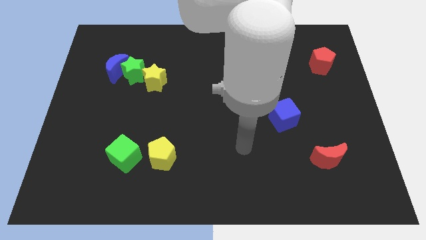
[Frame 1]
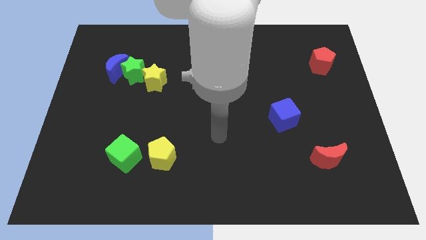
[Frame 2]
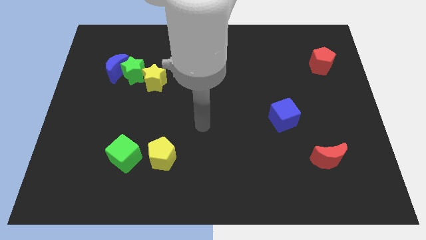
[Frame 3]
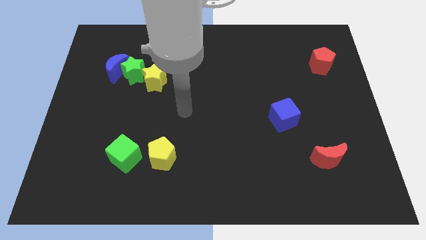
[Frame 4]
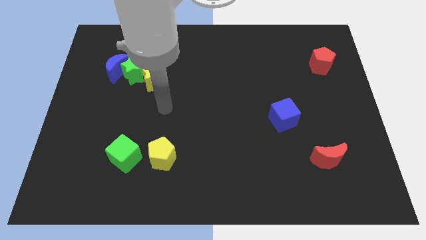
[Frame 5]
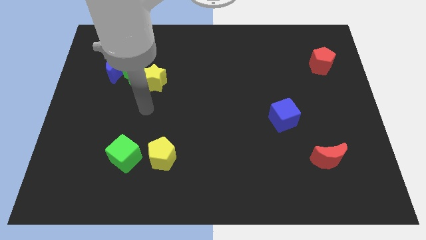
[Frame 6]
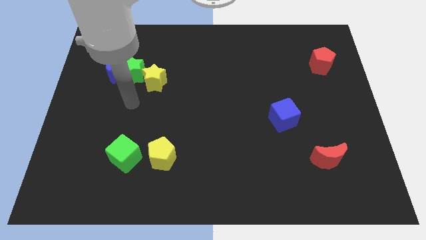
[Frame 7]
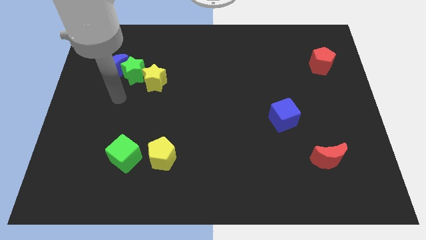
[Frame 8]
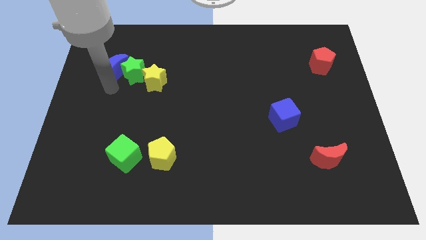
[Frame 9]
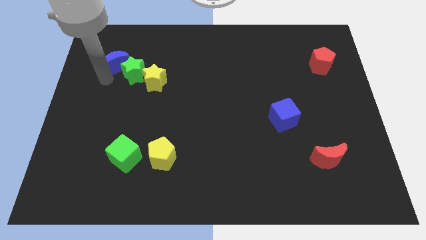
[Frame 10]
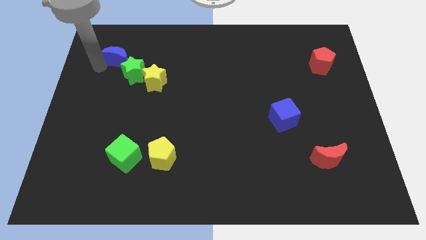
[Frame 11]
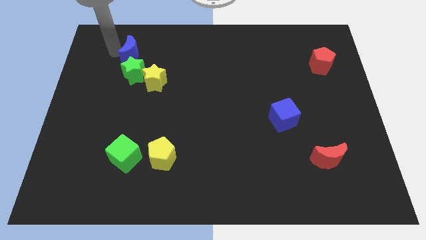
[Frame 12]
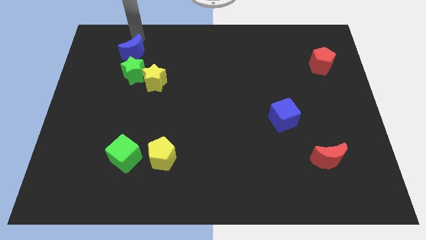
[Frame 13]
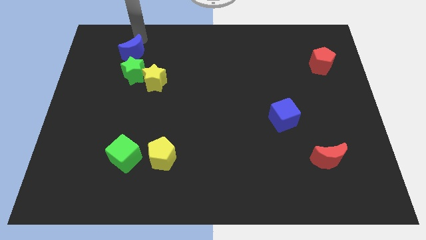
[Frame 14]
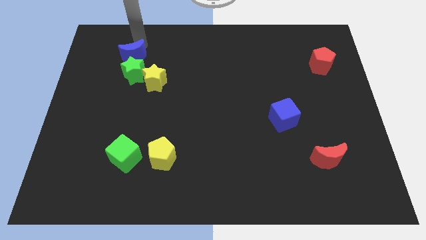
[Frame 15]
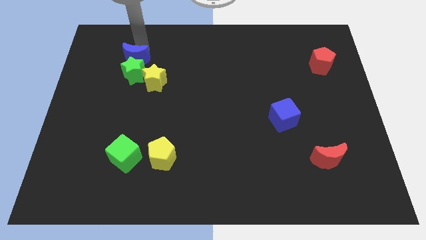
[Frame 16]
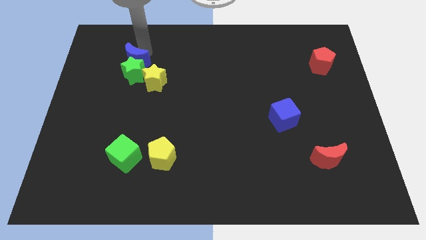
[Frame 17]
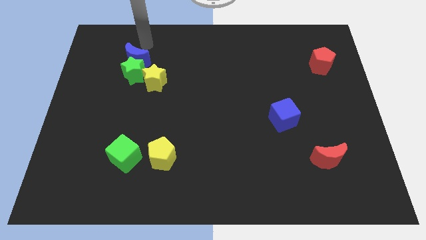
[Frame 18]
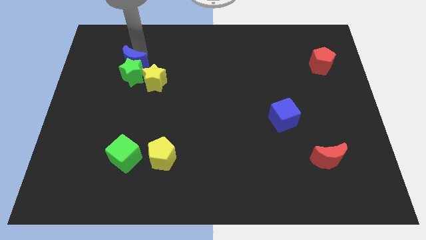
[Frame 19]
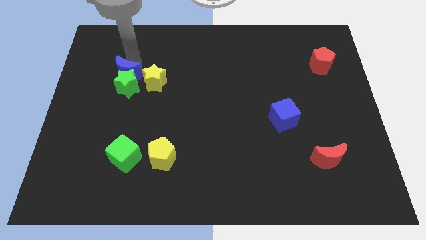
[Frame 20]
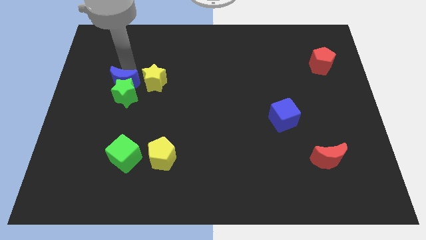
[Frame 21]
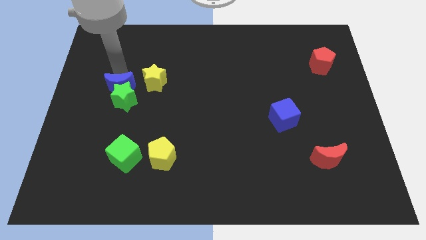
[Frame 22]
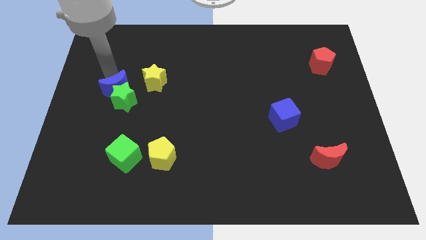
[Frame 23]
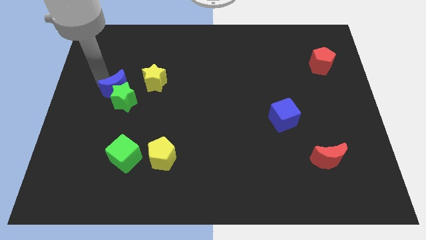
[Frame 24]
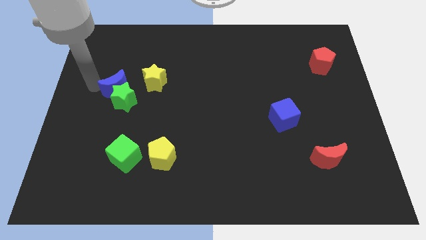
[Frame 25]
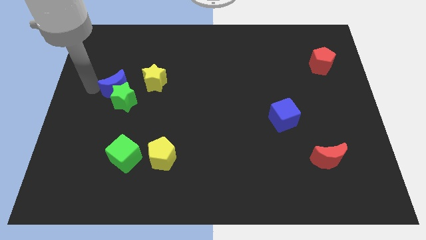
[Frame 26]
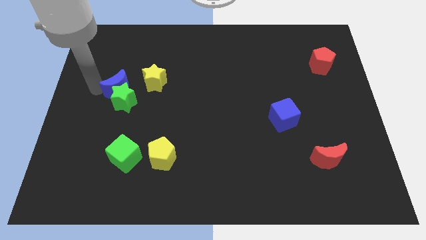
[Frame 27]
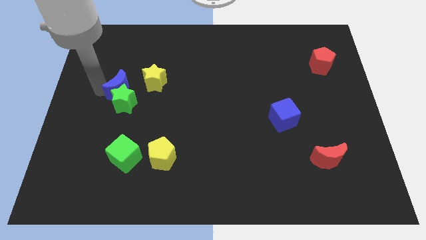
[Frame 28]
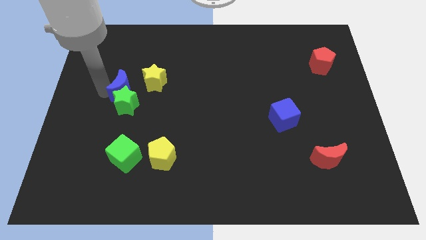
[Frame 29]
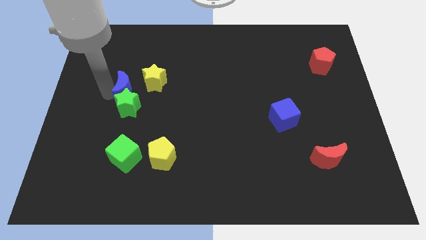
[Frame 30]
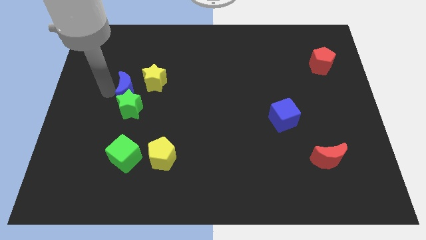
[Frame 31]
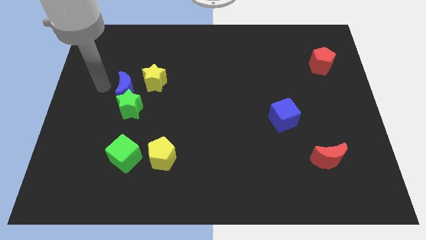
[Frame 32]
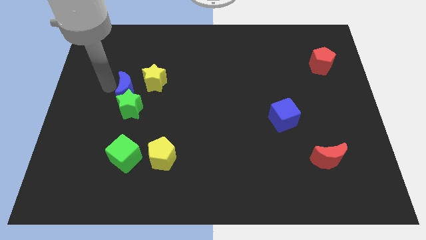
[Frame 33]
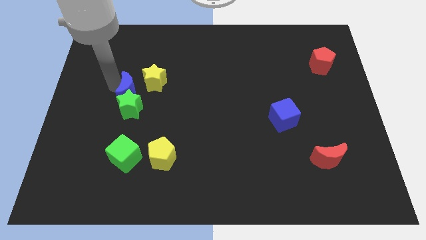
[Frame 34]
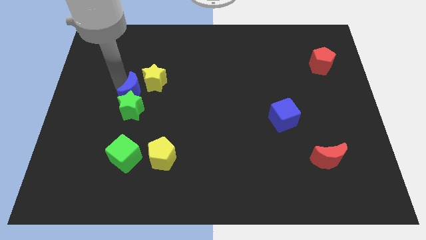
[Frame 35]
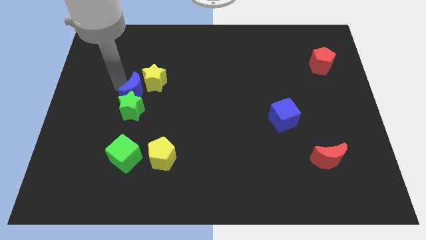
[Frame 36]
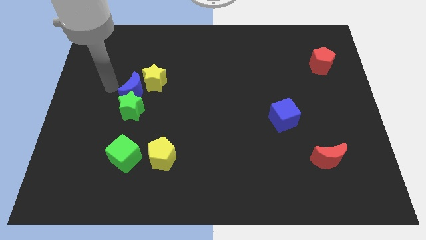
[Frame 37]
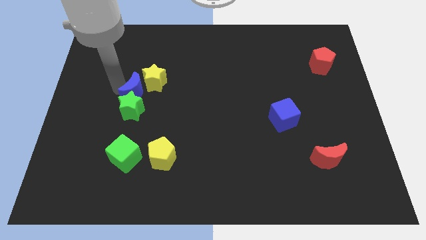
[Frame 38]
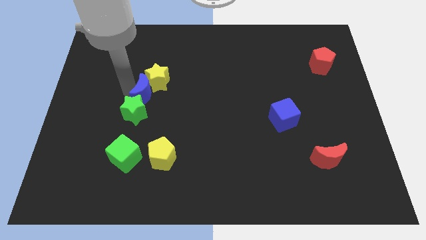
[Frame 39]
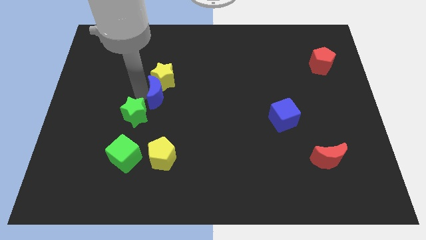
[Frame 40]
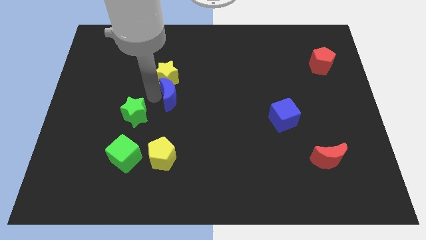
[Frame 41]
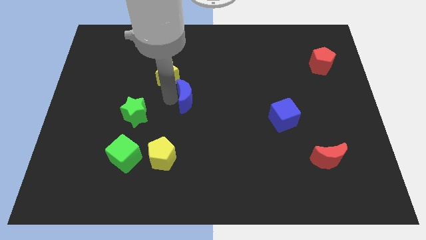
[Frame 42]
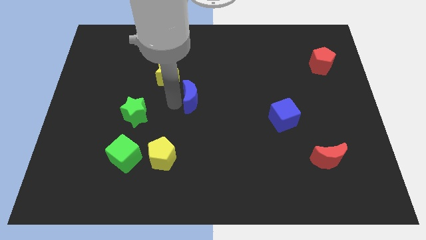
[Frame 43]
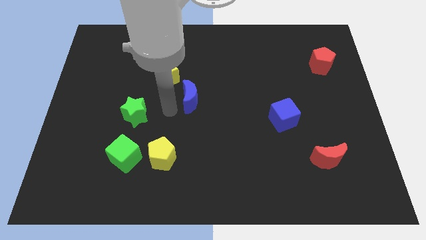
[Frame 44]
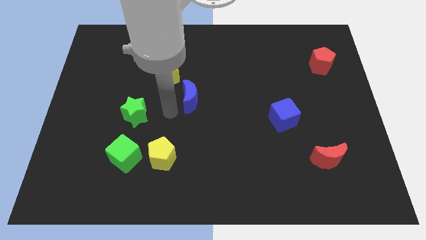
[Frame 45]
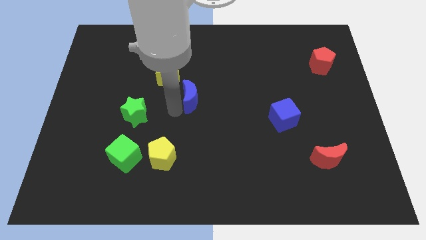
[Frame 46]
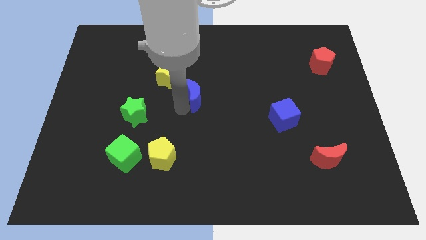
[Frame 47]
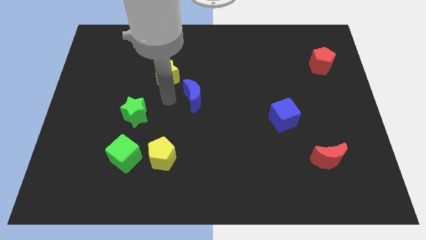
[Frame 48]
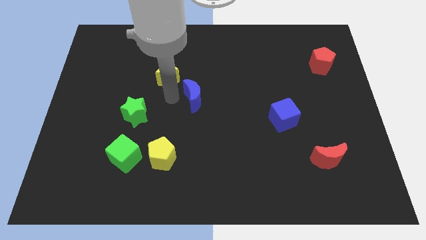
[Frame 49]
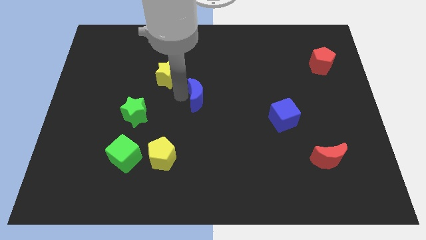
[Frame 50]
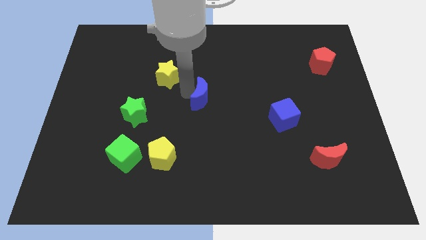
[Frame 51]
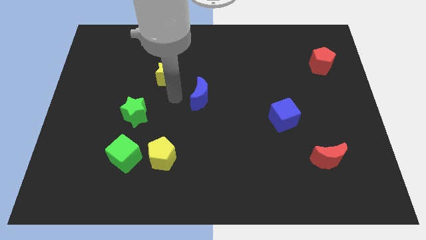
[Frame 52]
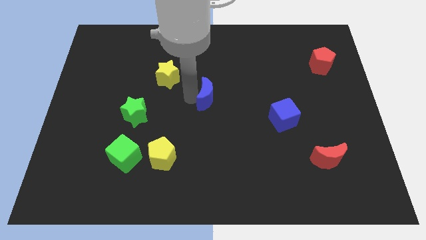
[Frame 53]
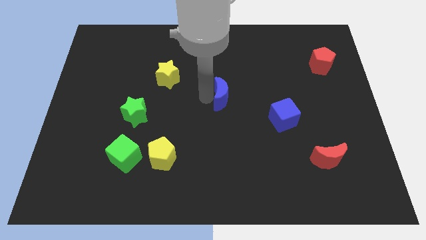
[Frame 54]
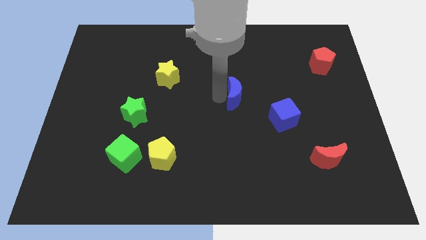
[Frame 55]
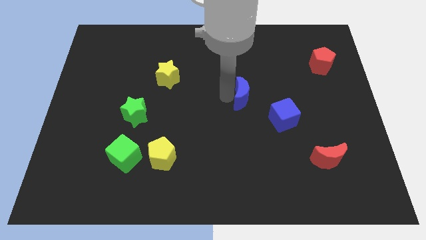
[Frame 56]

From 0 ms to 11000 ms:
move the blue moon to the top left side of the blue cube

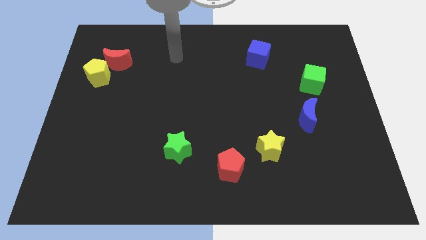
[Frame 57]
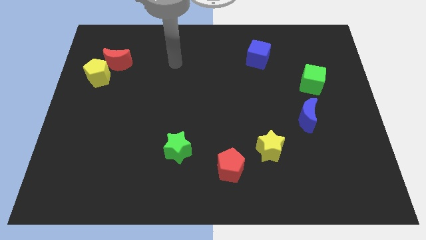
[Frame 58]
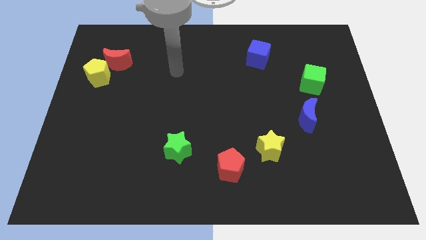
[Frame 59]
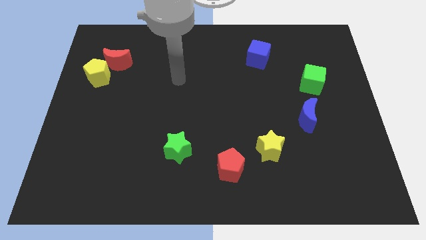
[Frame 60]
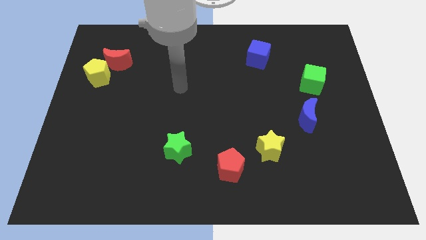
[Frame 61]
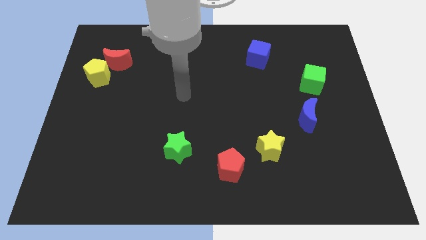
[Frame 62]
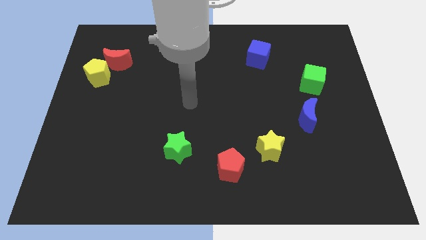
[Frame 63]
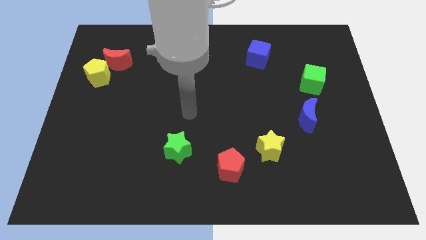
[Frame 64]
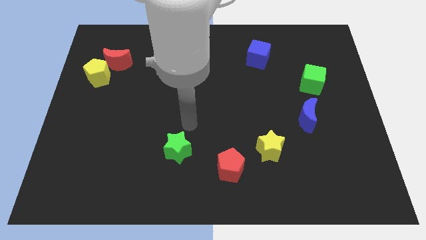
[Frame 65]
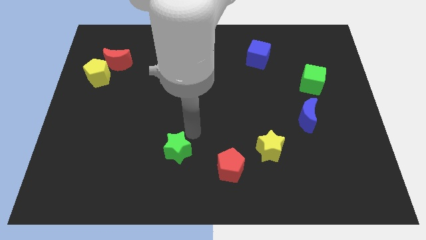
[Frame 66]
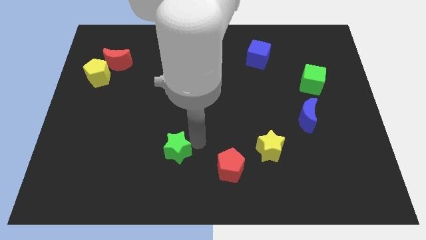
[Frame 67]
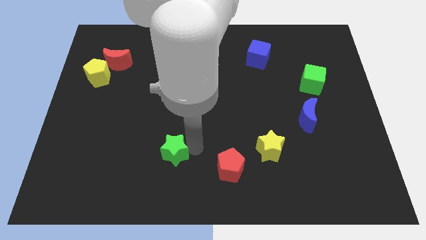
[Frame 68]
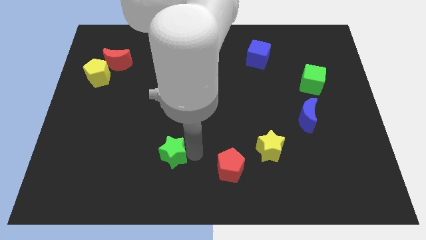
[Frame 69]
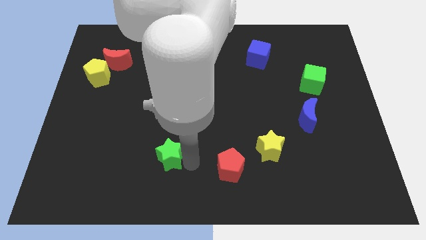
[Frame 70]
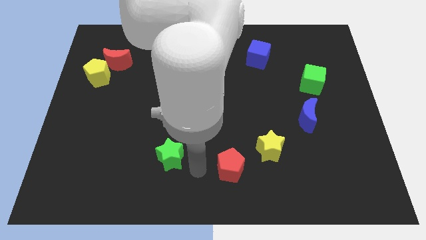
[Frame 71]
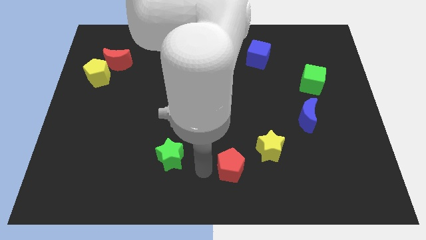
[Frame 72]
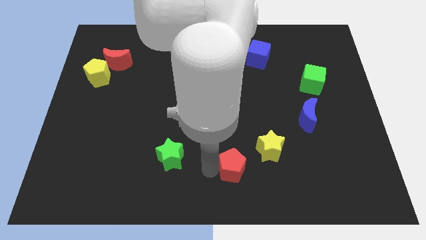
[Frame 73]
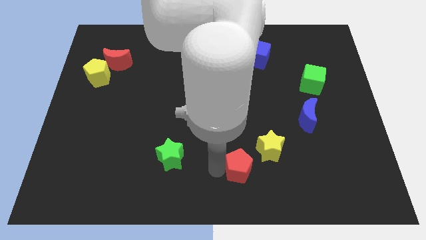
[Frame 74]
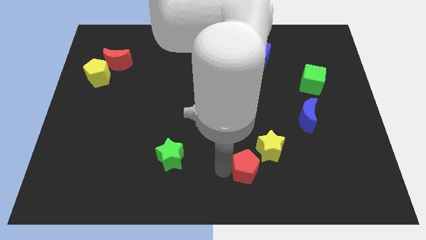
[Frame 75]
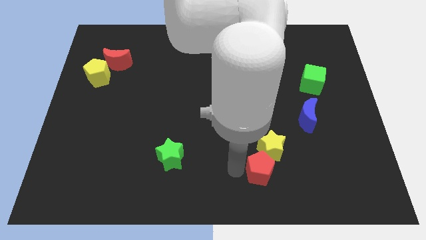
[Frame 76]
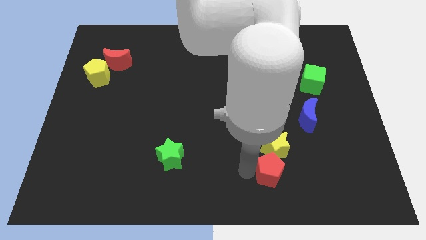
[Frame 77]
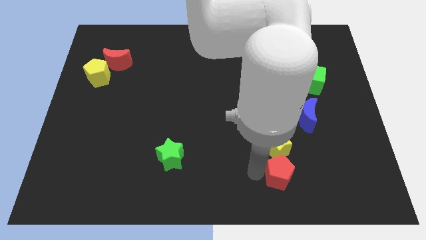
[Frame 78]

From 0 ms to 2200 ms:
put the red pentagon diagonally down and to the right of the yellow star
